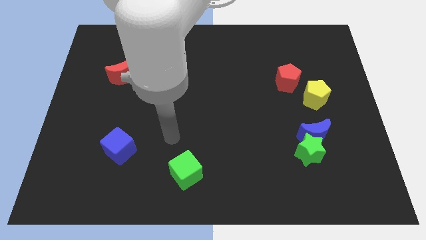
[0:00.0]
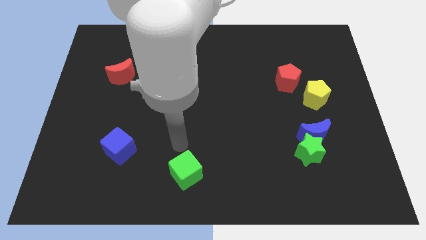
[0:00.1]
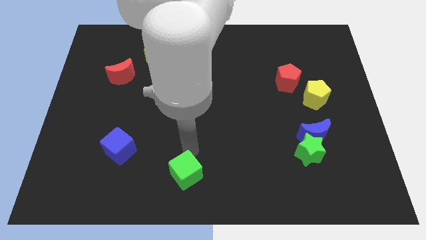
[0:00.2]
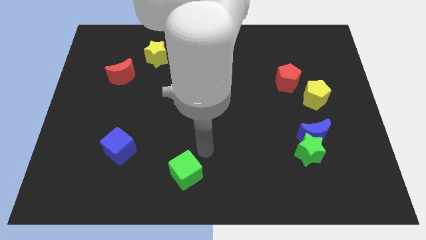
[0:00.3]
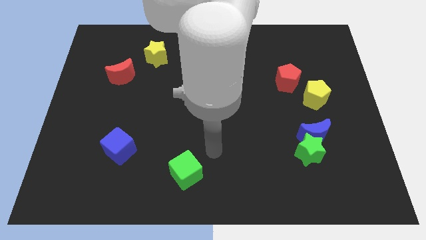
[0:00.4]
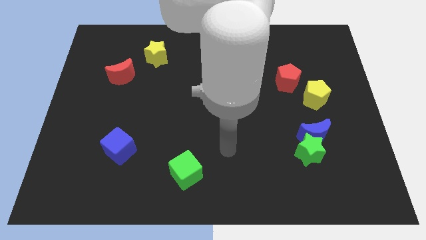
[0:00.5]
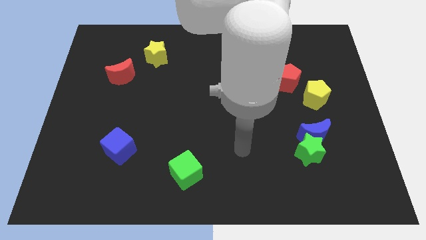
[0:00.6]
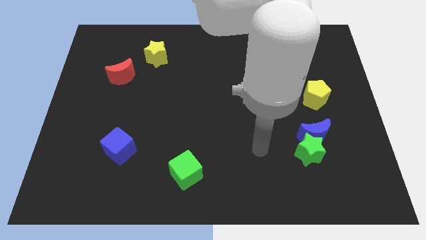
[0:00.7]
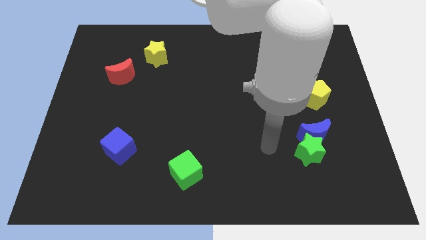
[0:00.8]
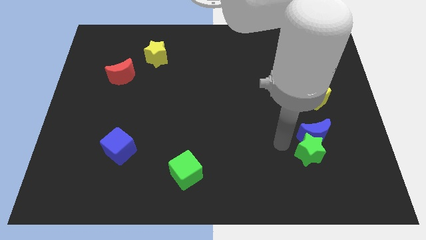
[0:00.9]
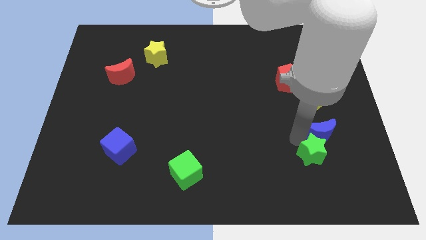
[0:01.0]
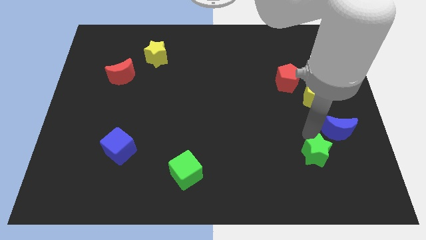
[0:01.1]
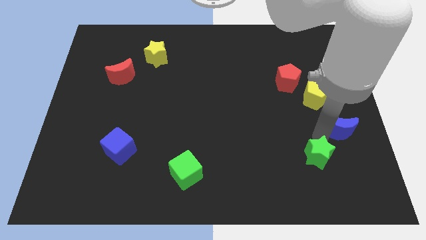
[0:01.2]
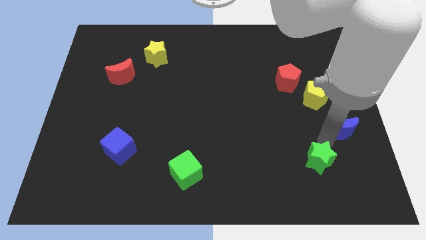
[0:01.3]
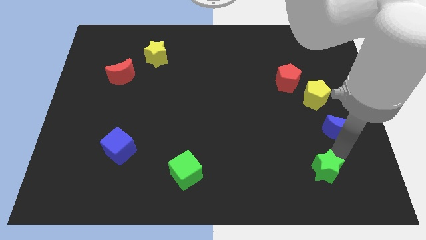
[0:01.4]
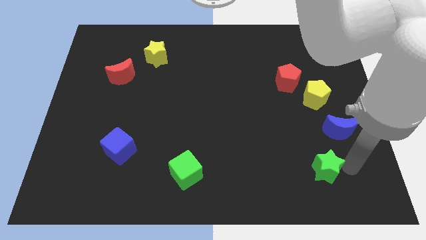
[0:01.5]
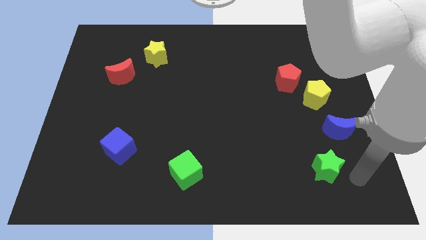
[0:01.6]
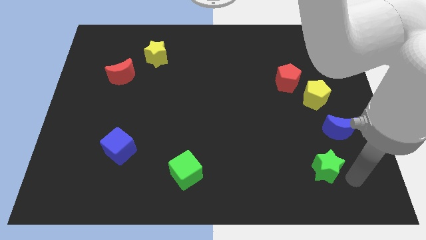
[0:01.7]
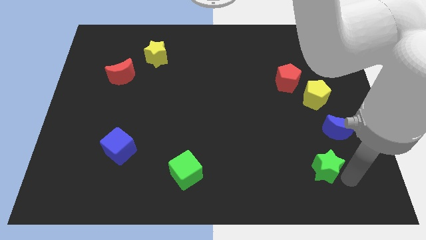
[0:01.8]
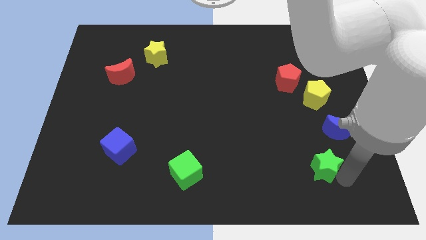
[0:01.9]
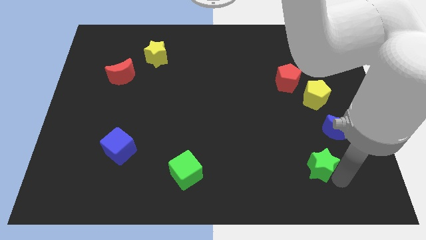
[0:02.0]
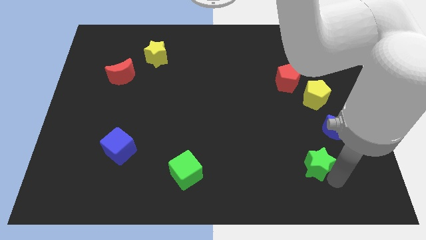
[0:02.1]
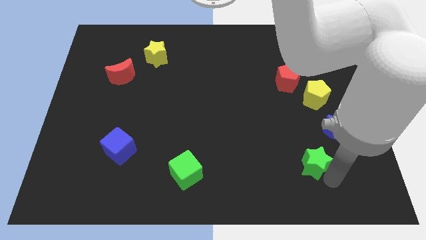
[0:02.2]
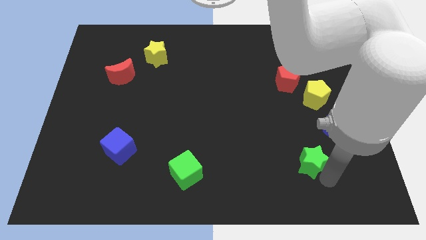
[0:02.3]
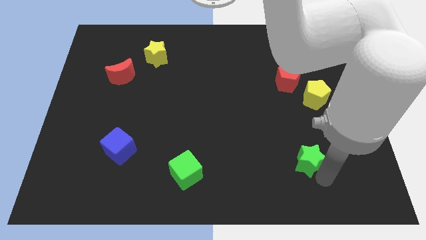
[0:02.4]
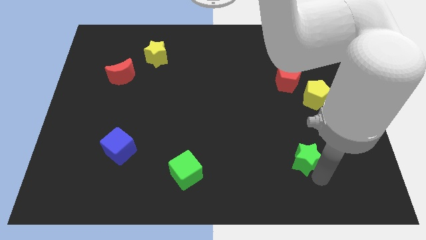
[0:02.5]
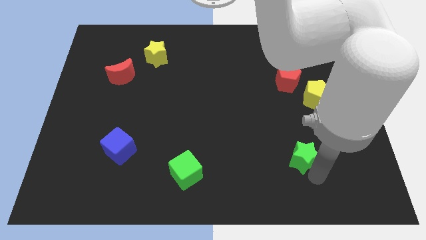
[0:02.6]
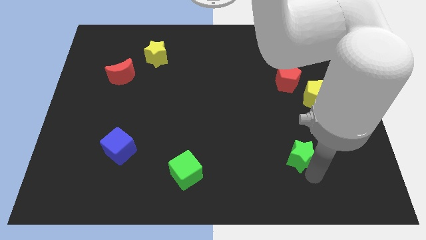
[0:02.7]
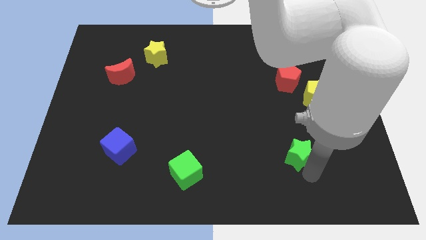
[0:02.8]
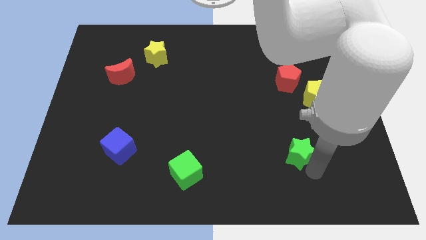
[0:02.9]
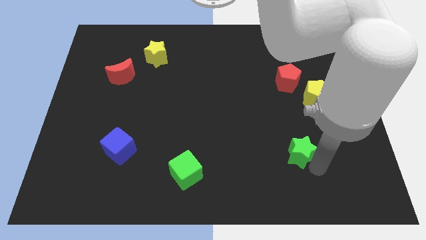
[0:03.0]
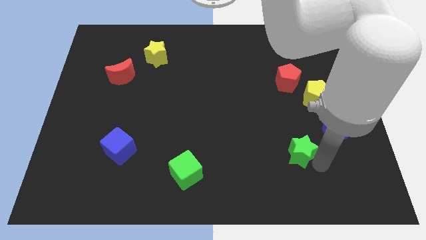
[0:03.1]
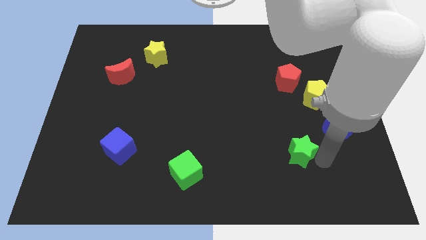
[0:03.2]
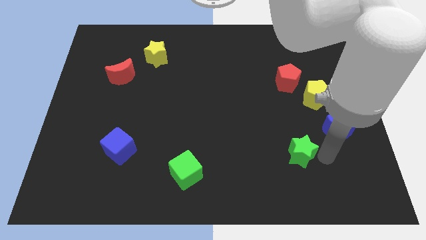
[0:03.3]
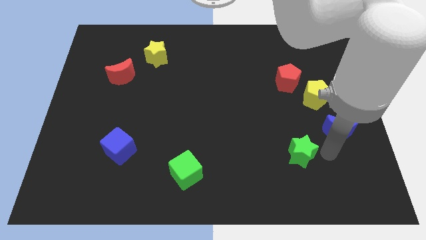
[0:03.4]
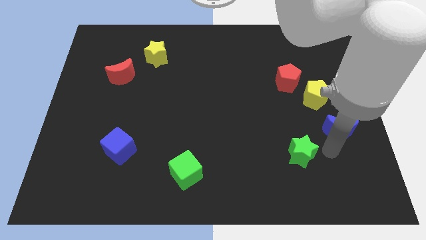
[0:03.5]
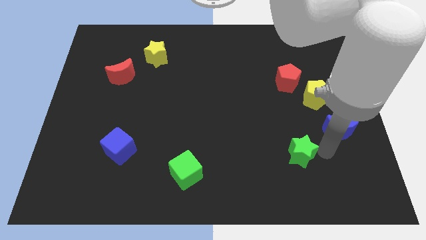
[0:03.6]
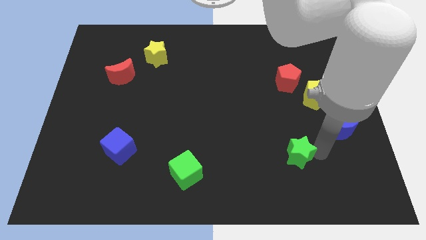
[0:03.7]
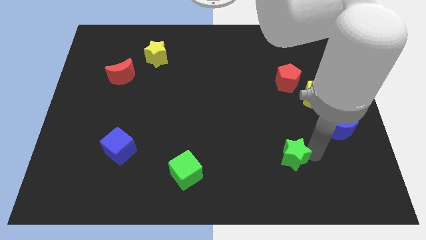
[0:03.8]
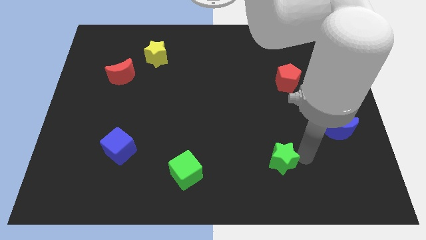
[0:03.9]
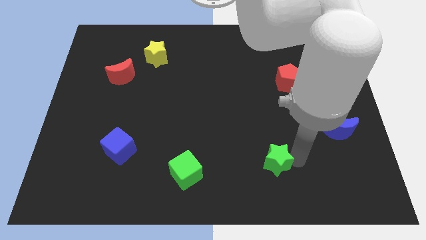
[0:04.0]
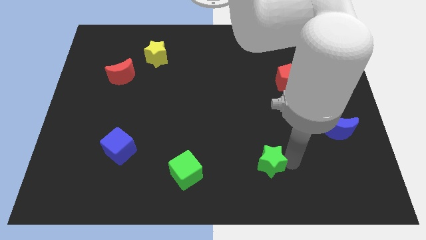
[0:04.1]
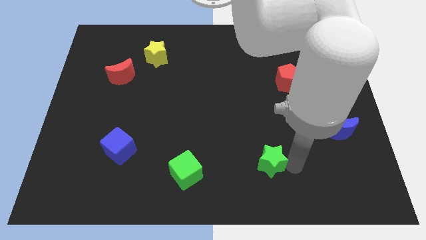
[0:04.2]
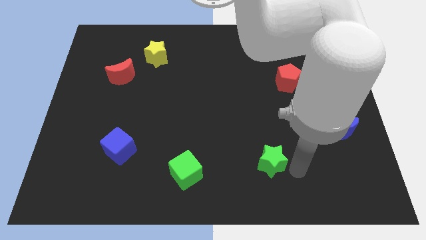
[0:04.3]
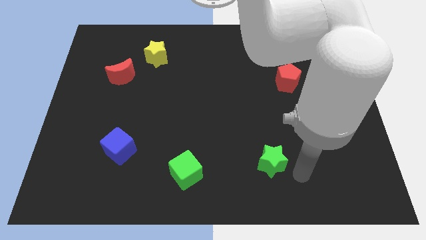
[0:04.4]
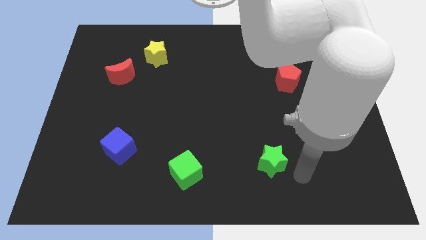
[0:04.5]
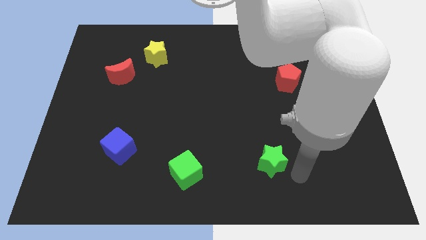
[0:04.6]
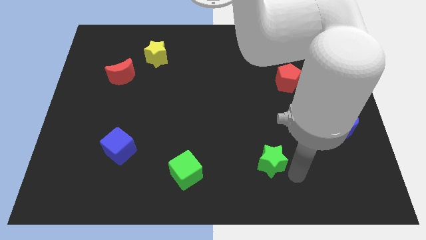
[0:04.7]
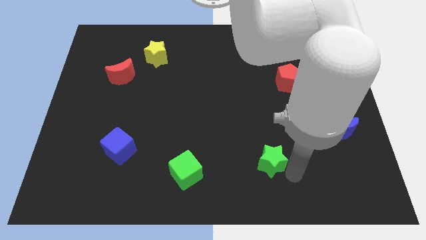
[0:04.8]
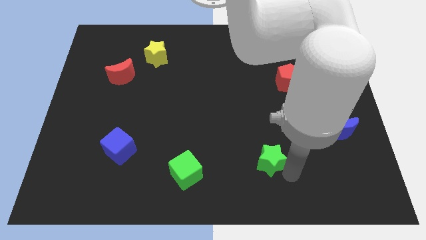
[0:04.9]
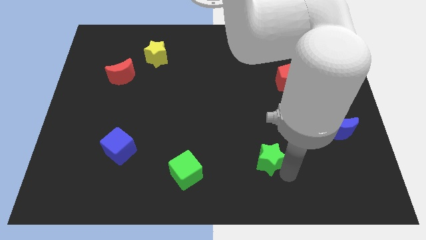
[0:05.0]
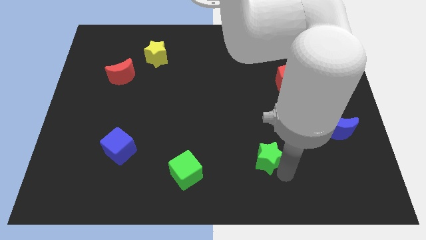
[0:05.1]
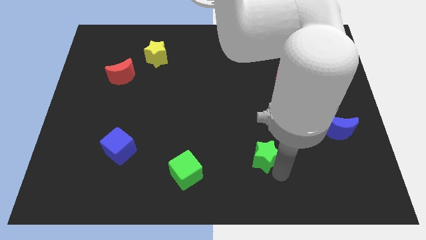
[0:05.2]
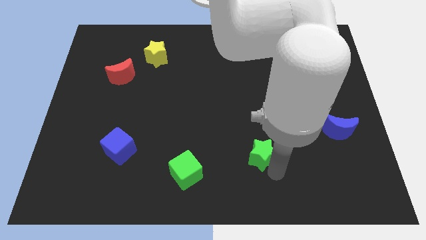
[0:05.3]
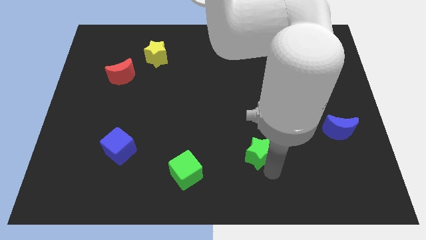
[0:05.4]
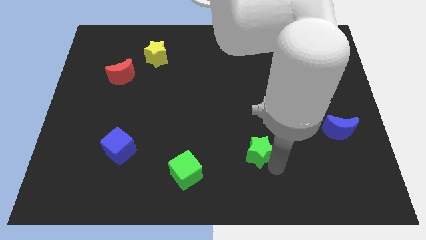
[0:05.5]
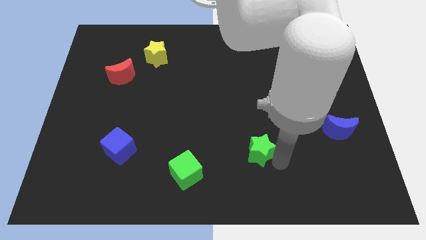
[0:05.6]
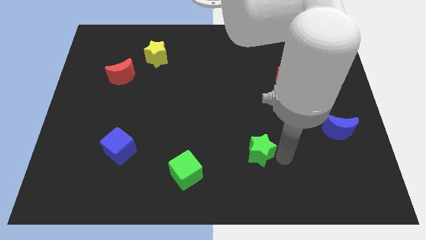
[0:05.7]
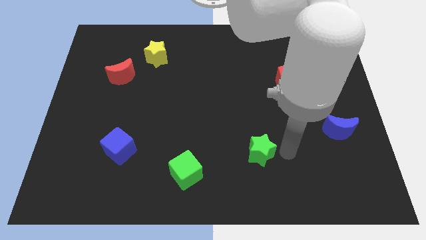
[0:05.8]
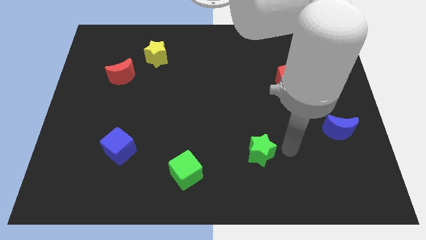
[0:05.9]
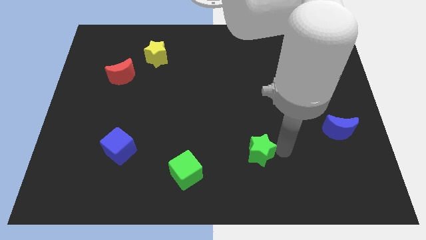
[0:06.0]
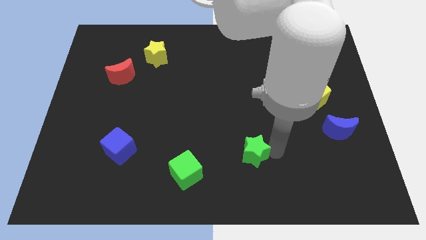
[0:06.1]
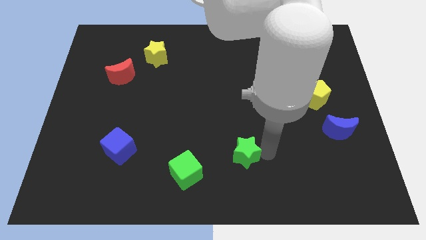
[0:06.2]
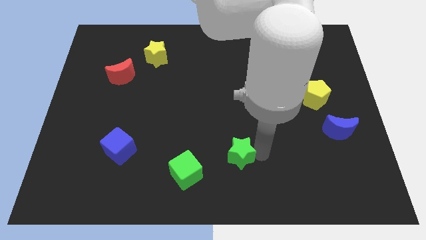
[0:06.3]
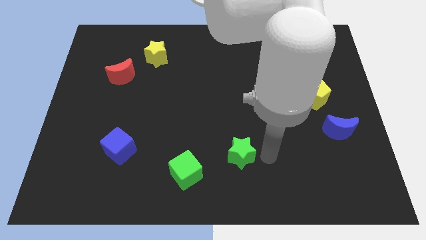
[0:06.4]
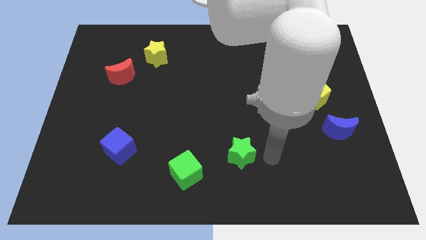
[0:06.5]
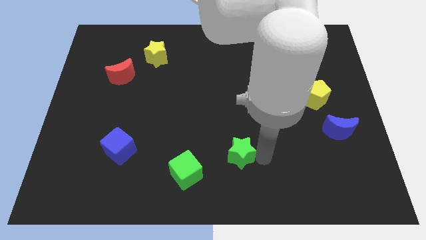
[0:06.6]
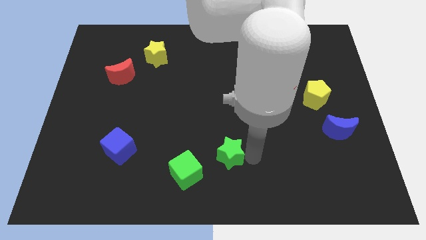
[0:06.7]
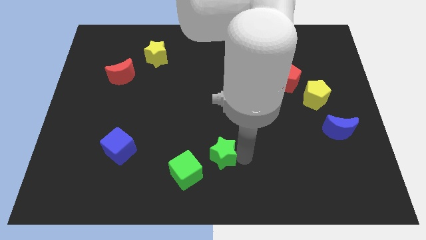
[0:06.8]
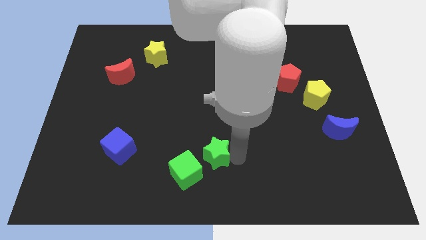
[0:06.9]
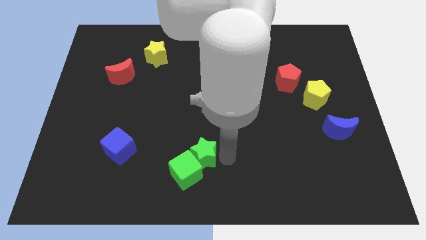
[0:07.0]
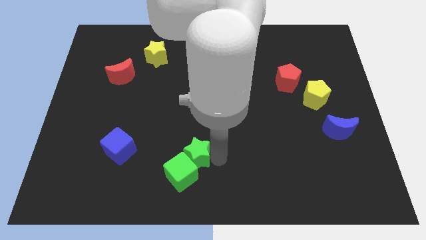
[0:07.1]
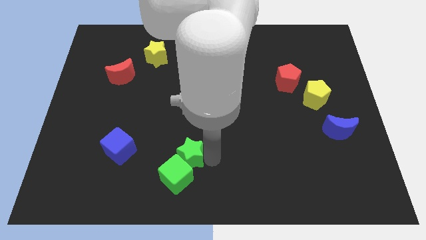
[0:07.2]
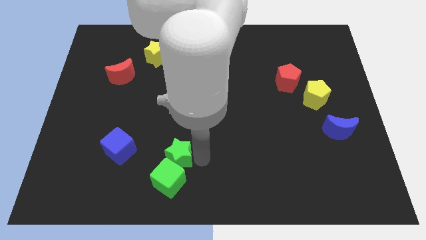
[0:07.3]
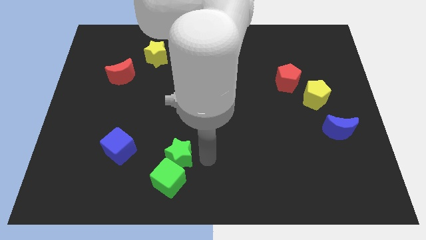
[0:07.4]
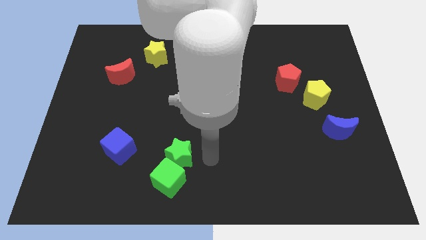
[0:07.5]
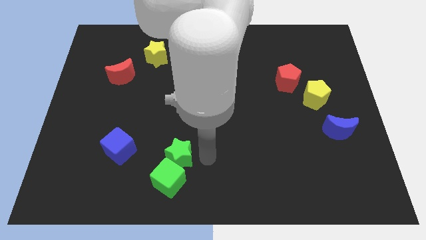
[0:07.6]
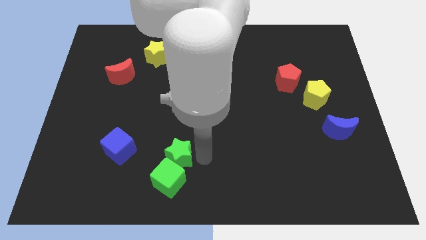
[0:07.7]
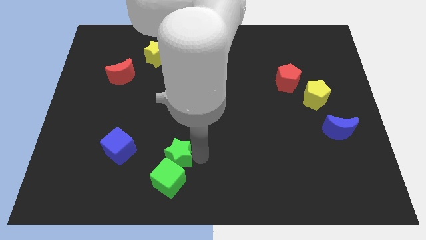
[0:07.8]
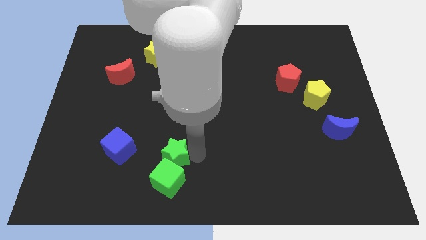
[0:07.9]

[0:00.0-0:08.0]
put the green star to the top left of the green cube
